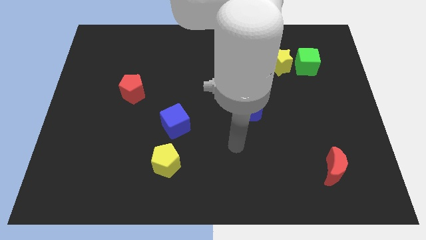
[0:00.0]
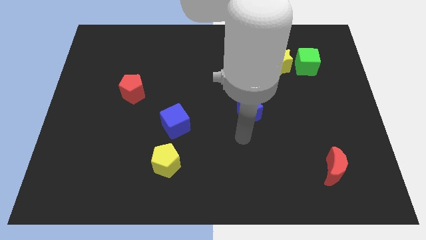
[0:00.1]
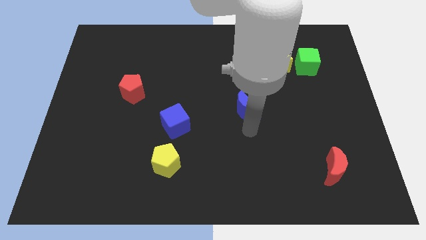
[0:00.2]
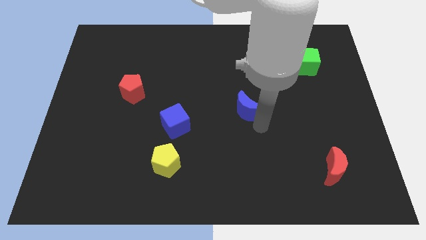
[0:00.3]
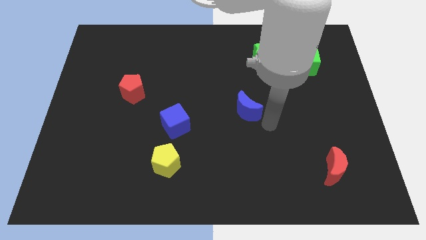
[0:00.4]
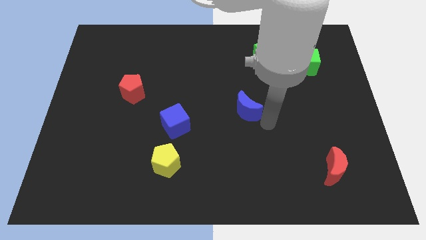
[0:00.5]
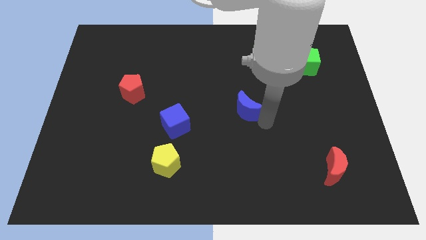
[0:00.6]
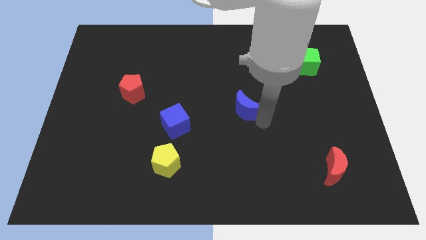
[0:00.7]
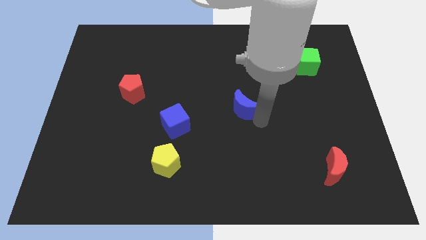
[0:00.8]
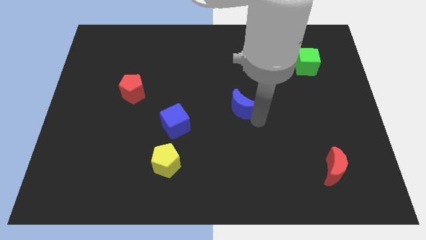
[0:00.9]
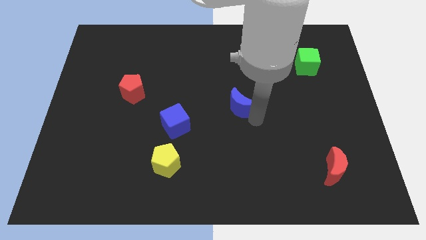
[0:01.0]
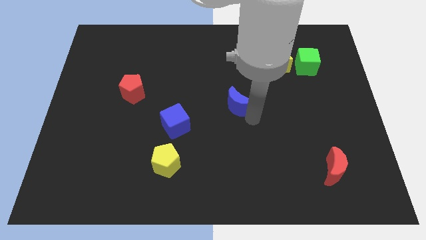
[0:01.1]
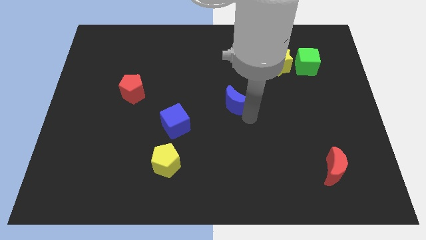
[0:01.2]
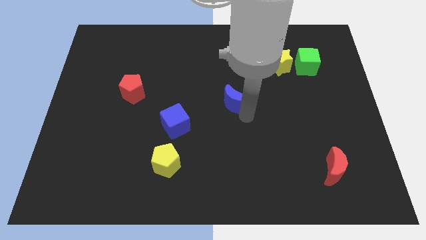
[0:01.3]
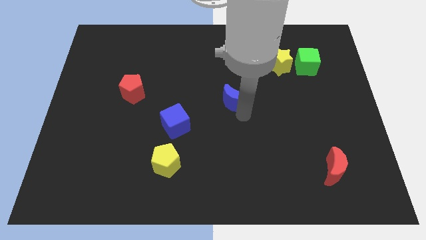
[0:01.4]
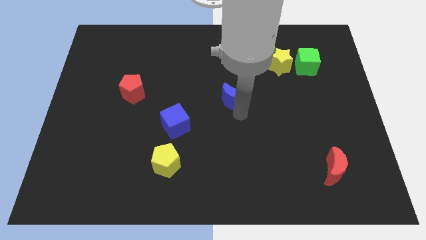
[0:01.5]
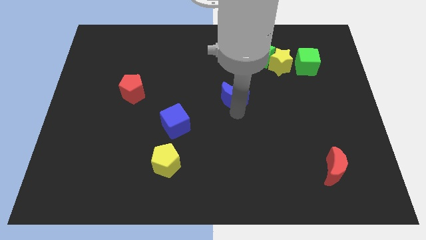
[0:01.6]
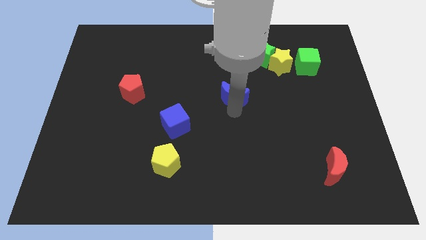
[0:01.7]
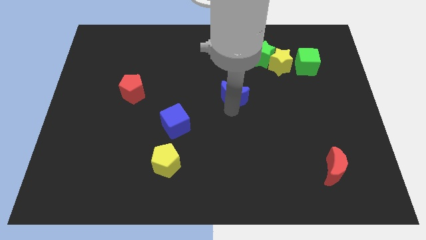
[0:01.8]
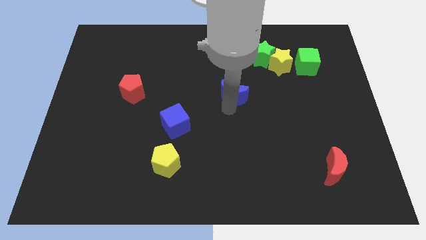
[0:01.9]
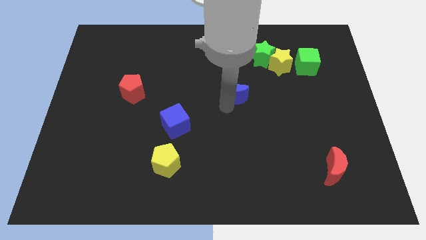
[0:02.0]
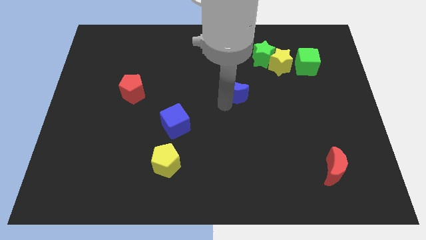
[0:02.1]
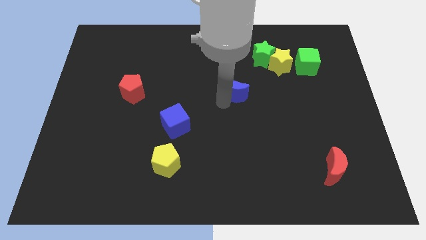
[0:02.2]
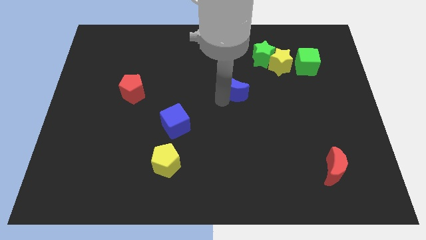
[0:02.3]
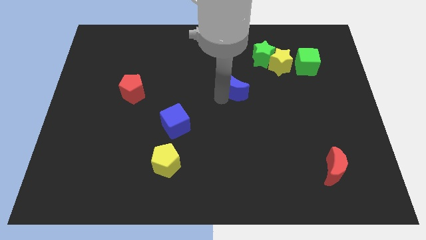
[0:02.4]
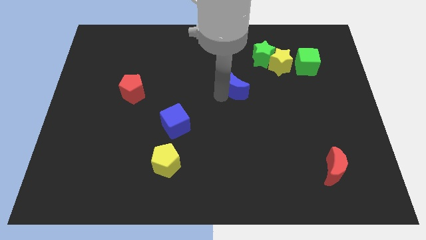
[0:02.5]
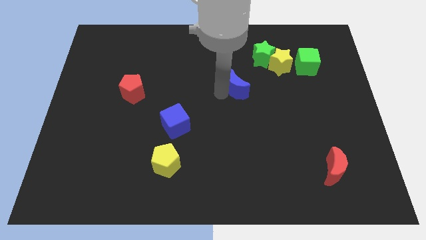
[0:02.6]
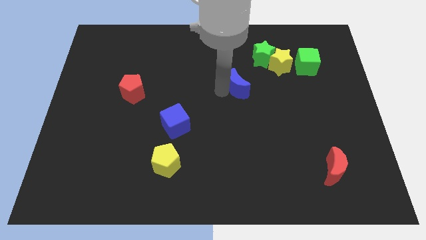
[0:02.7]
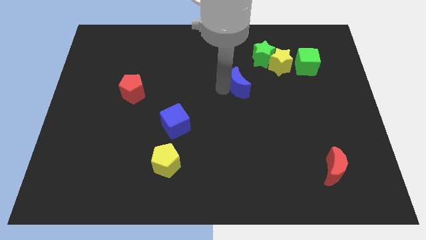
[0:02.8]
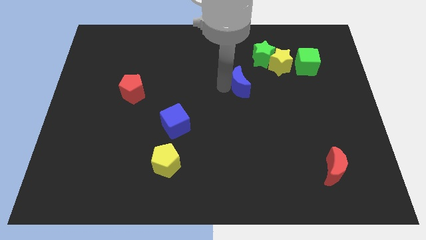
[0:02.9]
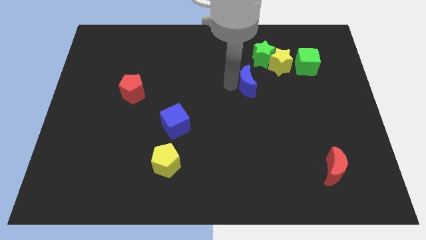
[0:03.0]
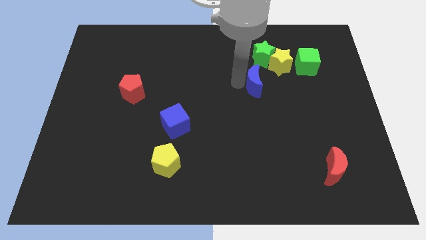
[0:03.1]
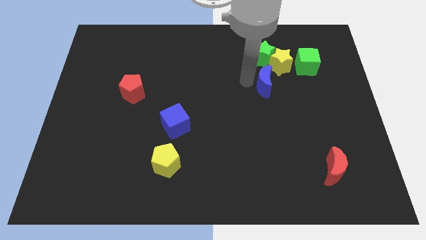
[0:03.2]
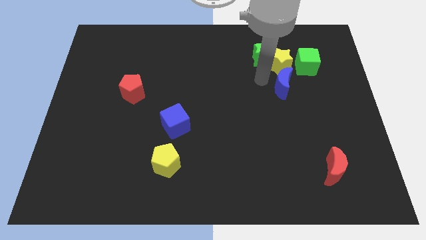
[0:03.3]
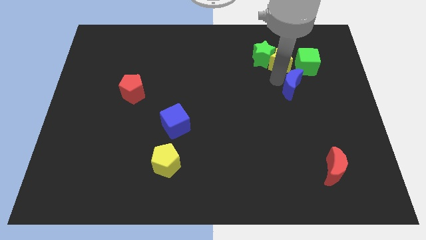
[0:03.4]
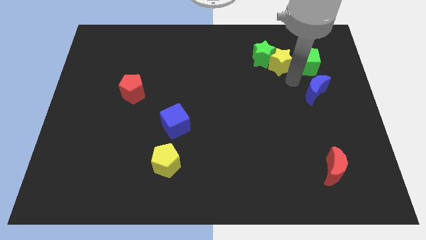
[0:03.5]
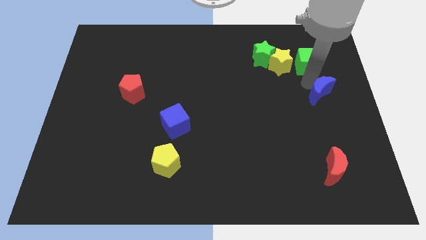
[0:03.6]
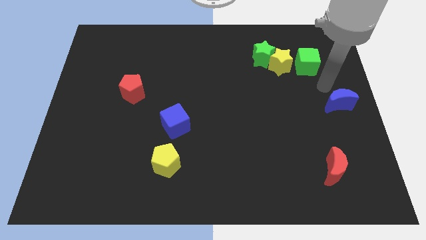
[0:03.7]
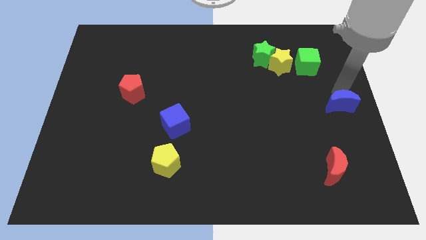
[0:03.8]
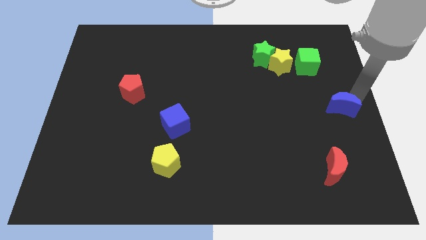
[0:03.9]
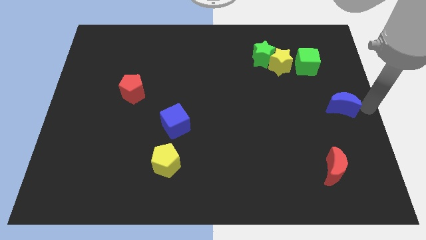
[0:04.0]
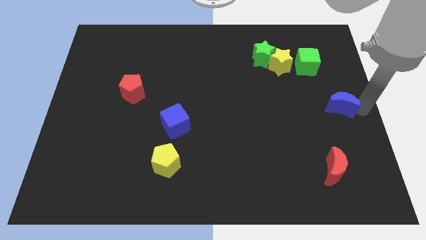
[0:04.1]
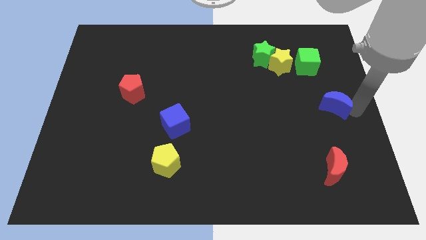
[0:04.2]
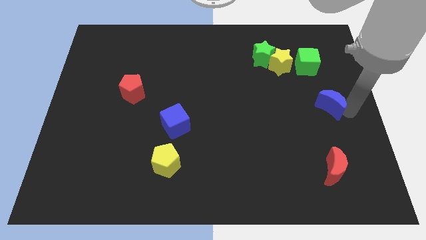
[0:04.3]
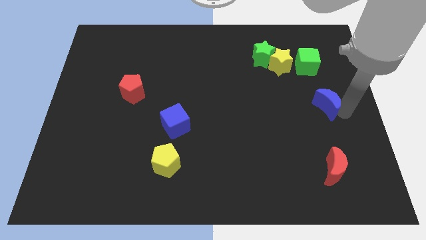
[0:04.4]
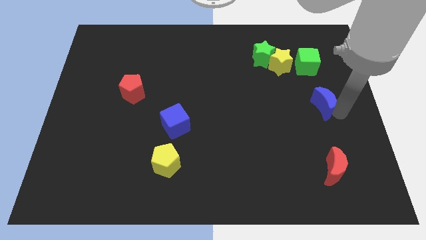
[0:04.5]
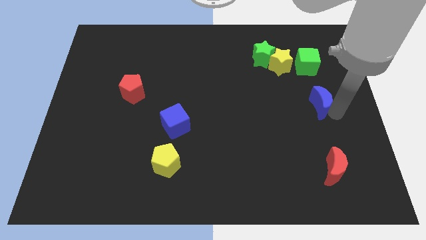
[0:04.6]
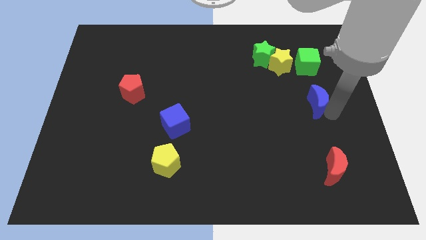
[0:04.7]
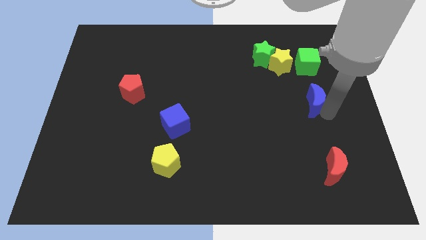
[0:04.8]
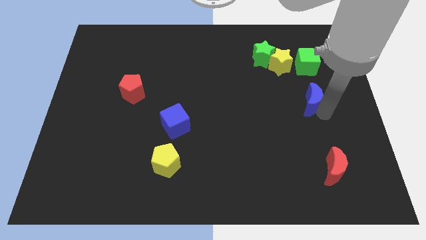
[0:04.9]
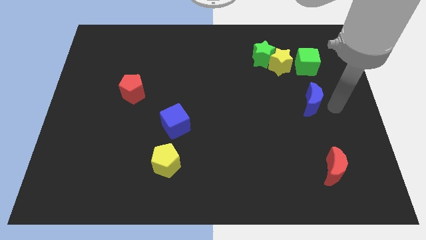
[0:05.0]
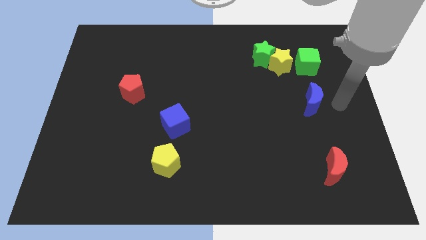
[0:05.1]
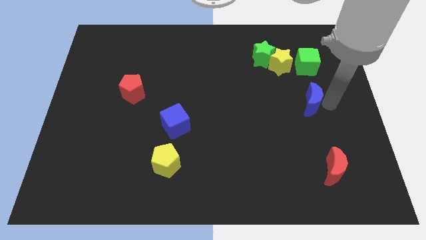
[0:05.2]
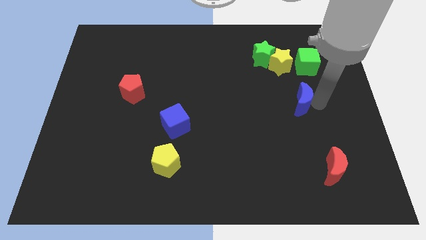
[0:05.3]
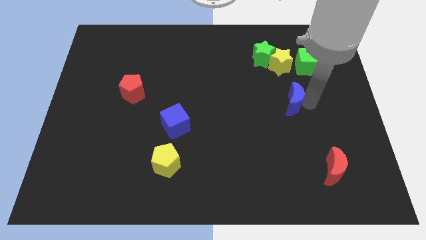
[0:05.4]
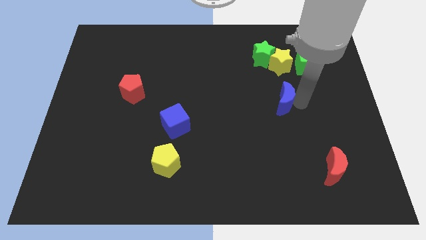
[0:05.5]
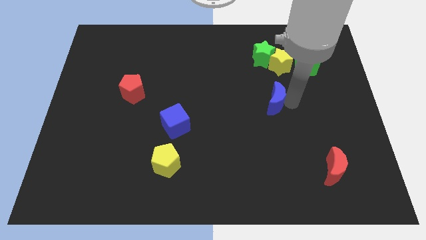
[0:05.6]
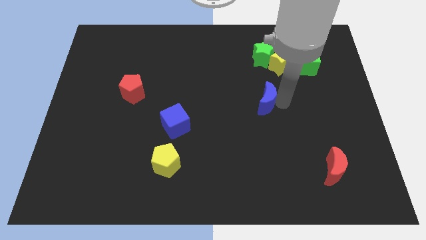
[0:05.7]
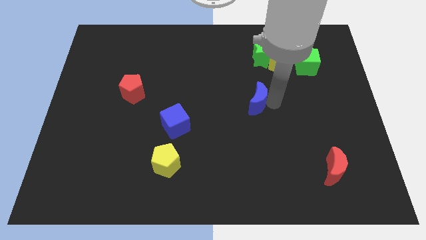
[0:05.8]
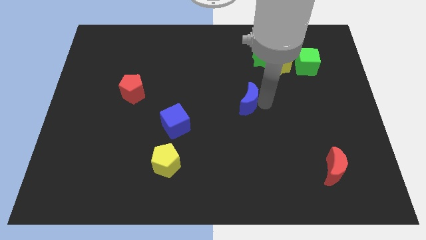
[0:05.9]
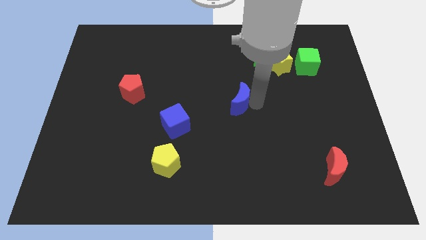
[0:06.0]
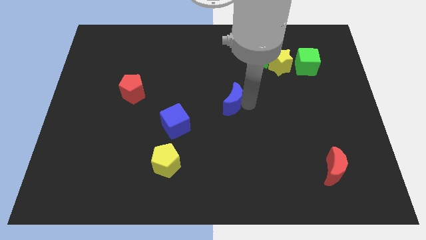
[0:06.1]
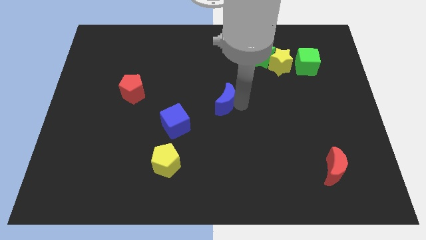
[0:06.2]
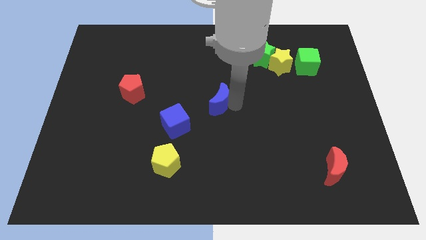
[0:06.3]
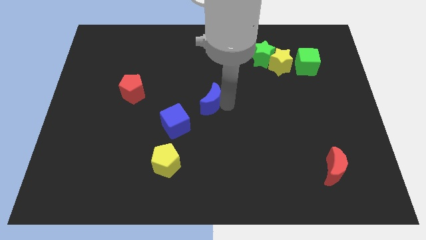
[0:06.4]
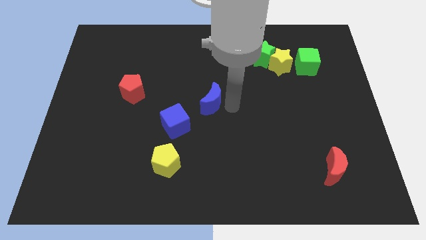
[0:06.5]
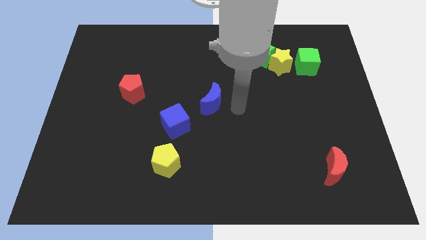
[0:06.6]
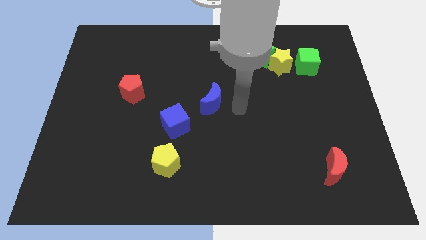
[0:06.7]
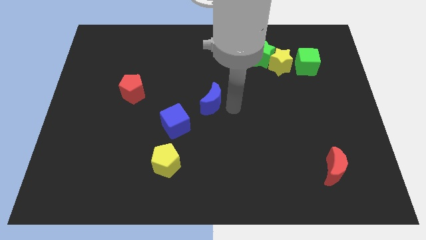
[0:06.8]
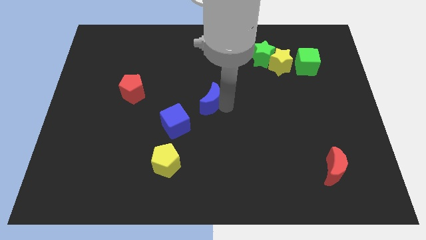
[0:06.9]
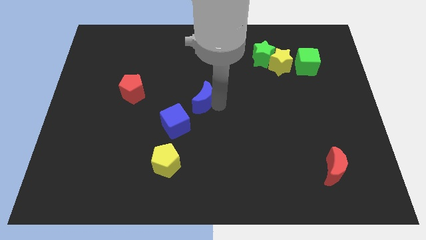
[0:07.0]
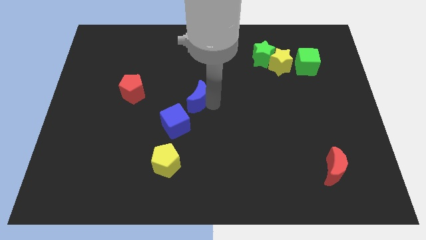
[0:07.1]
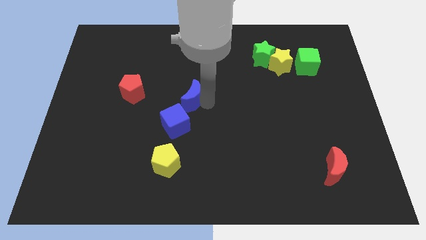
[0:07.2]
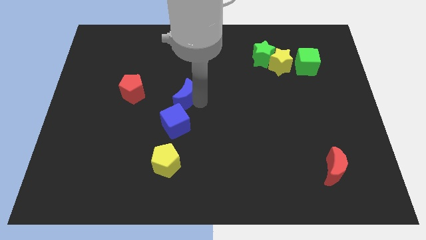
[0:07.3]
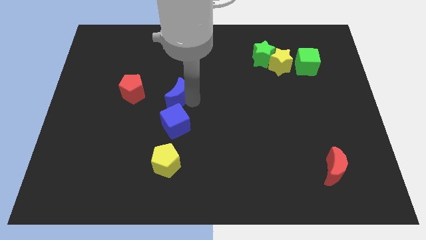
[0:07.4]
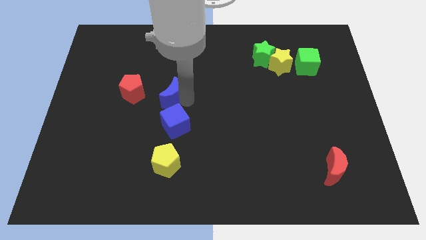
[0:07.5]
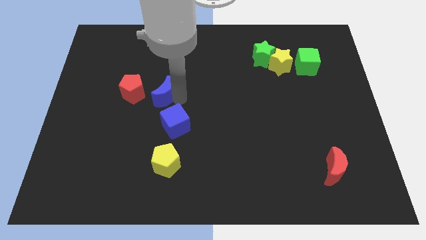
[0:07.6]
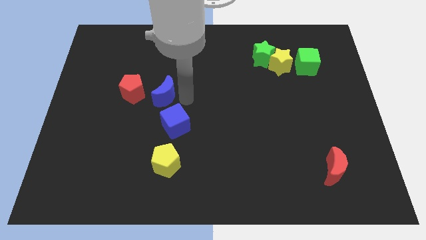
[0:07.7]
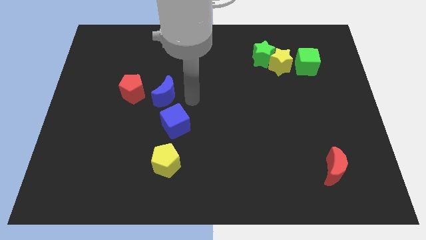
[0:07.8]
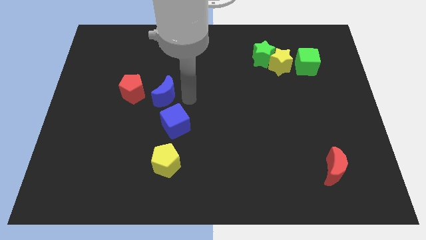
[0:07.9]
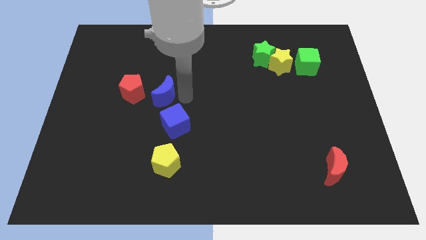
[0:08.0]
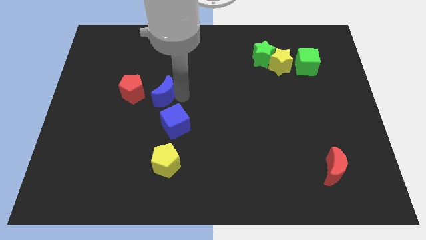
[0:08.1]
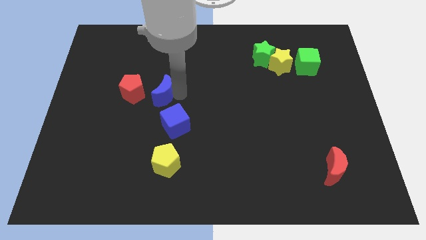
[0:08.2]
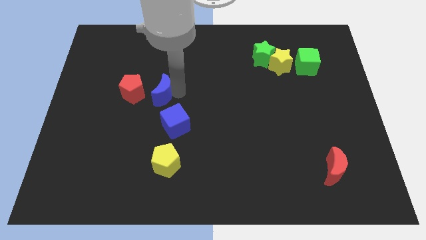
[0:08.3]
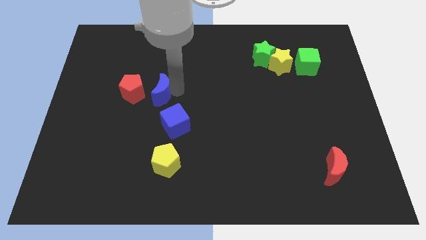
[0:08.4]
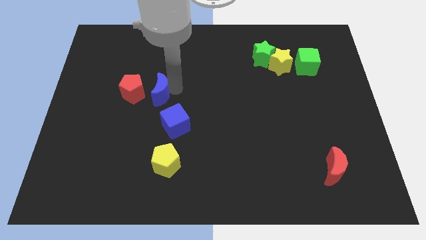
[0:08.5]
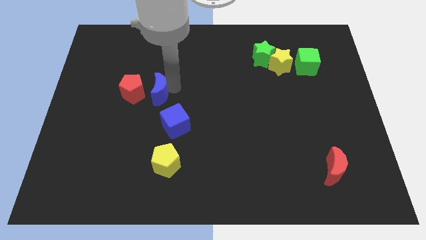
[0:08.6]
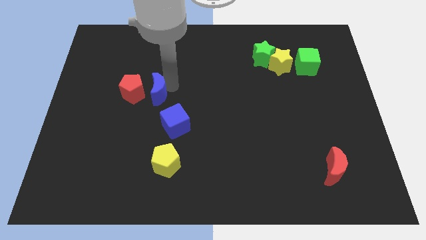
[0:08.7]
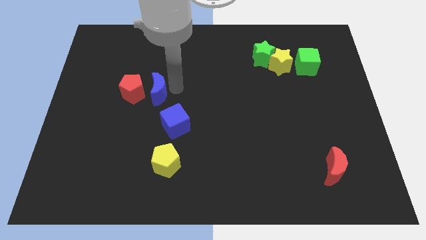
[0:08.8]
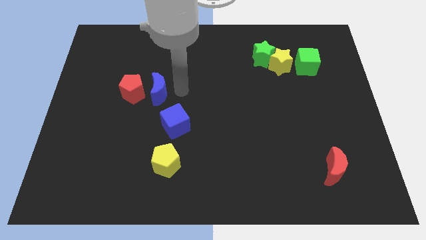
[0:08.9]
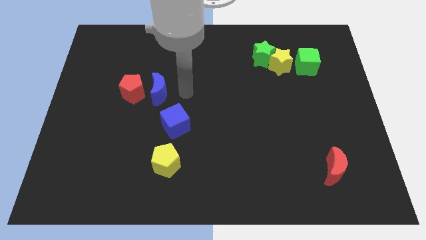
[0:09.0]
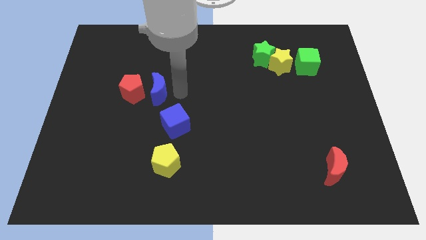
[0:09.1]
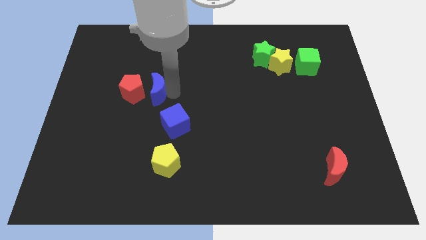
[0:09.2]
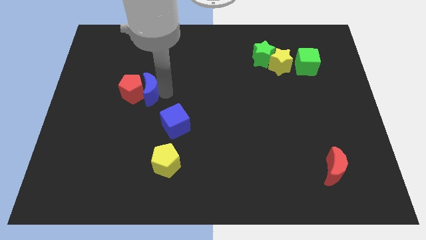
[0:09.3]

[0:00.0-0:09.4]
slide the blue moon close to the red pentagon
